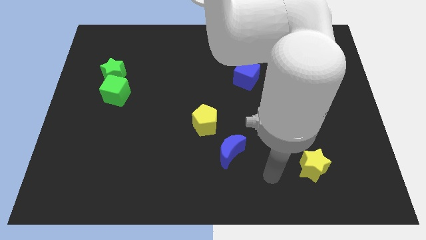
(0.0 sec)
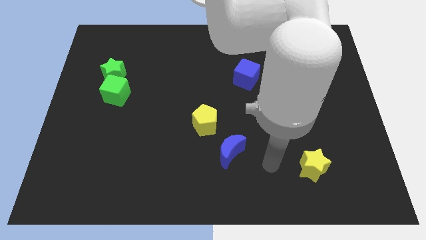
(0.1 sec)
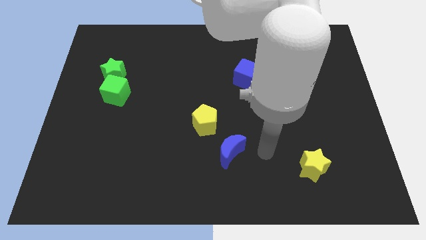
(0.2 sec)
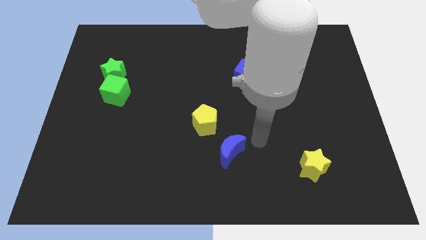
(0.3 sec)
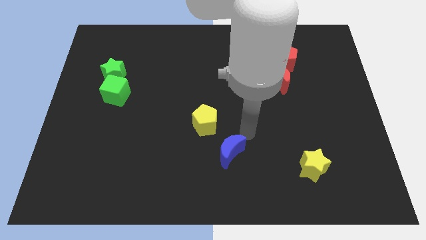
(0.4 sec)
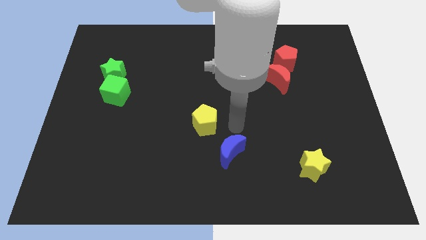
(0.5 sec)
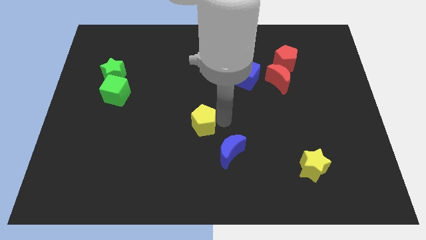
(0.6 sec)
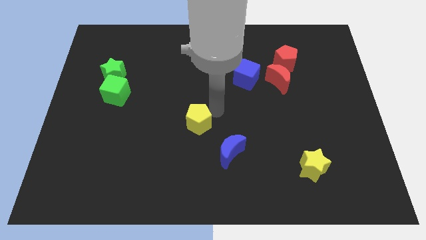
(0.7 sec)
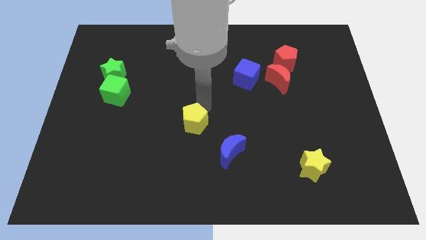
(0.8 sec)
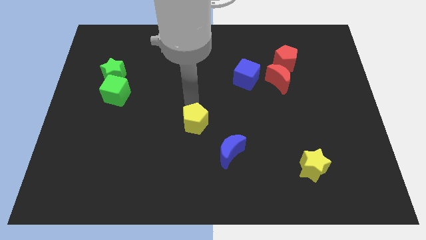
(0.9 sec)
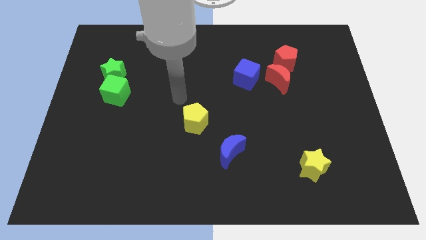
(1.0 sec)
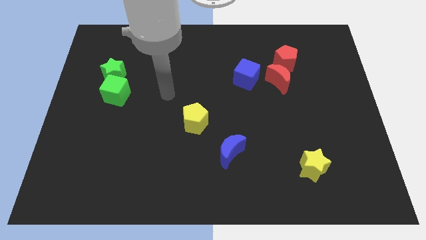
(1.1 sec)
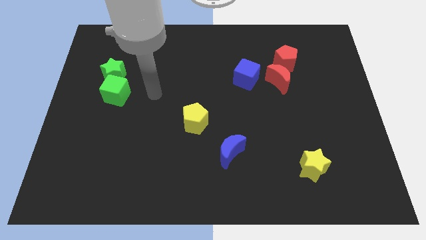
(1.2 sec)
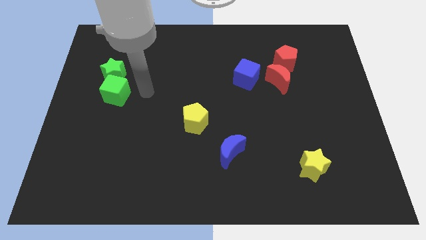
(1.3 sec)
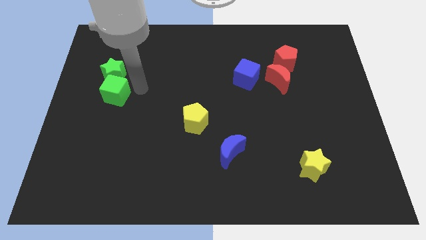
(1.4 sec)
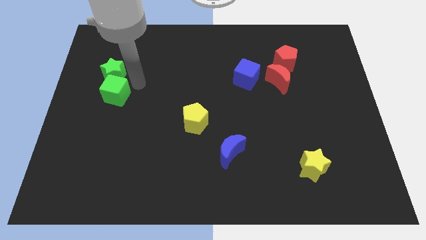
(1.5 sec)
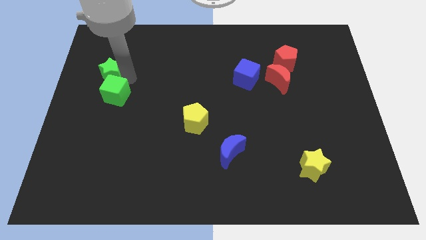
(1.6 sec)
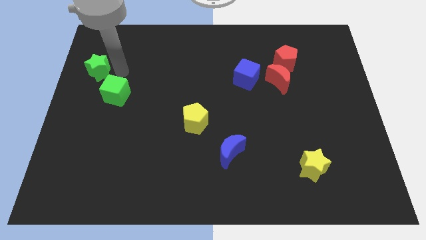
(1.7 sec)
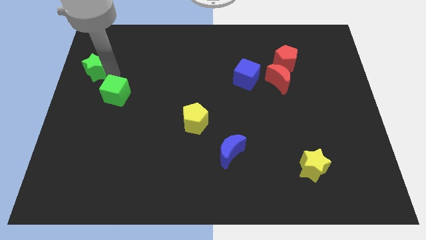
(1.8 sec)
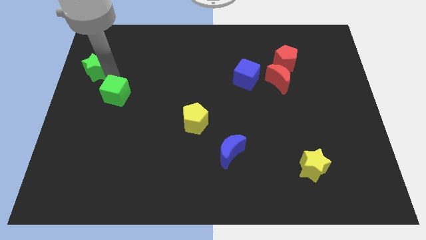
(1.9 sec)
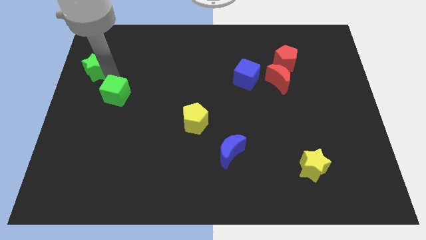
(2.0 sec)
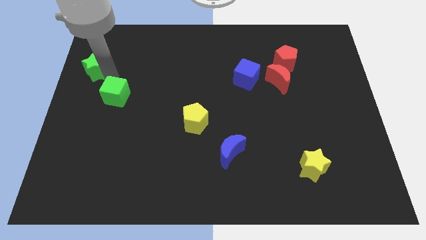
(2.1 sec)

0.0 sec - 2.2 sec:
move the green cube away from the green star

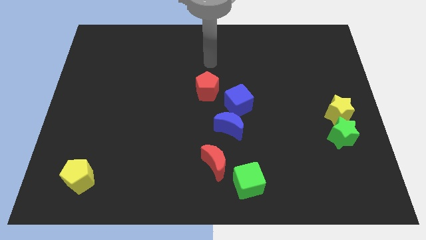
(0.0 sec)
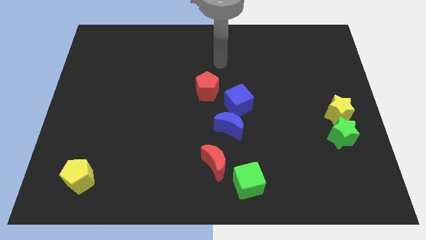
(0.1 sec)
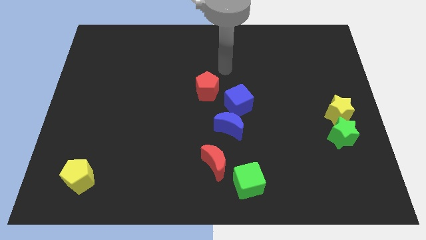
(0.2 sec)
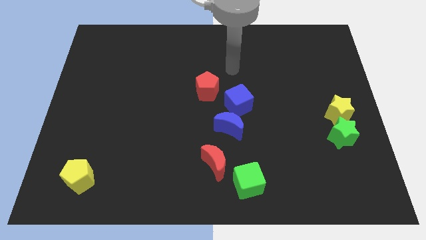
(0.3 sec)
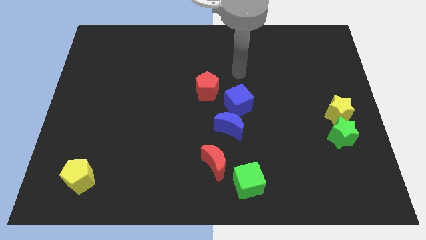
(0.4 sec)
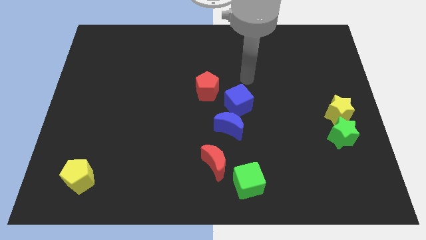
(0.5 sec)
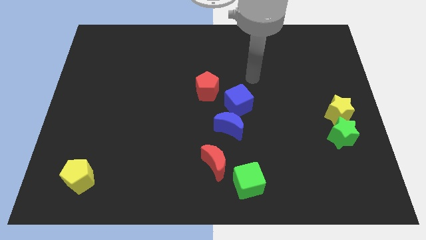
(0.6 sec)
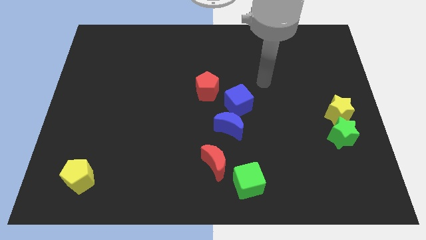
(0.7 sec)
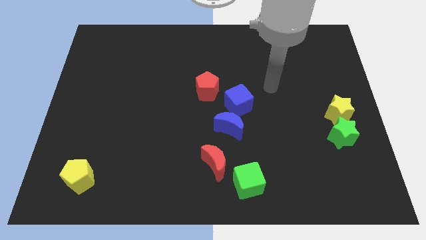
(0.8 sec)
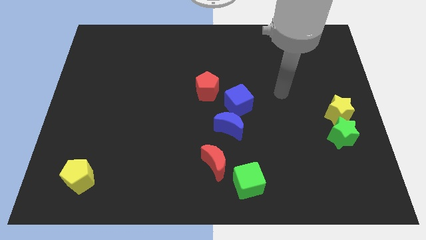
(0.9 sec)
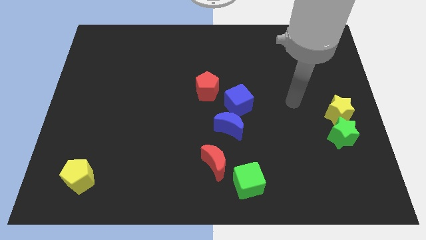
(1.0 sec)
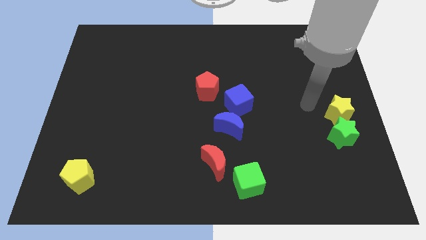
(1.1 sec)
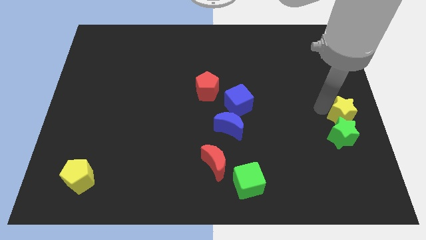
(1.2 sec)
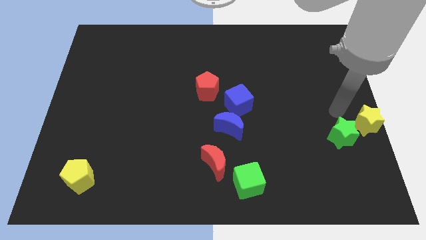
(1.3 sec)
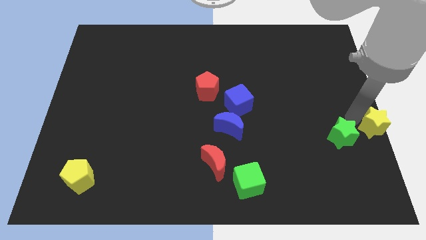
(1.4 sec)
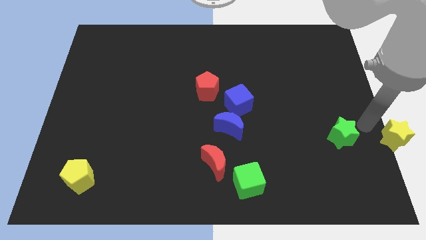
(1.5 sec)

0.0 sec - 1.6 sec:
move the green star away from the yellow star

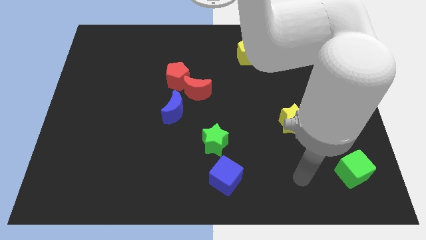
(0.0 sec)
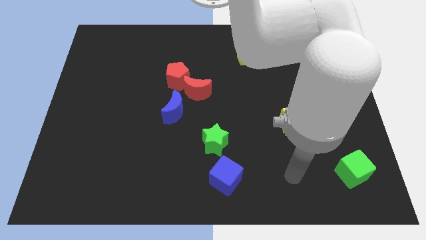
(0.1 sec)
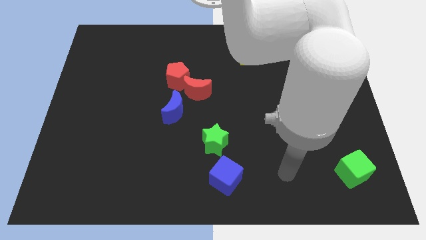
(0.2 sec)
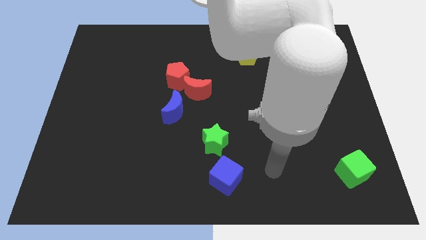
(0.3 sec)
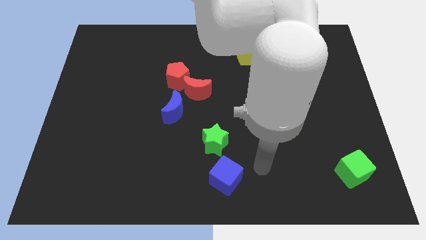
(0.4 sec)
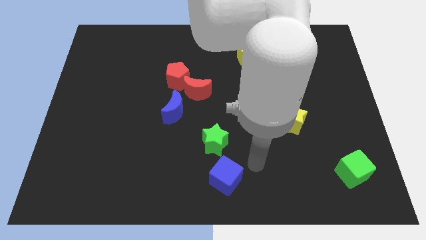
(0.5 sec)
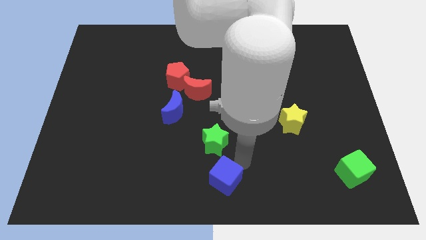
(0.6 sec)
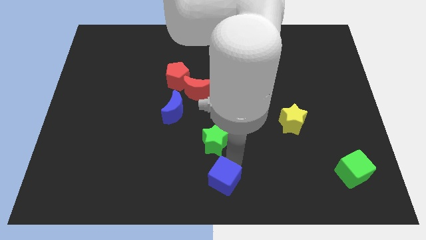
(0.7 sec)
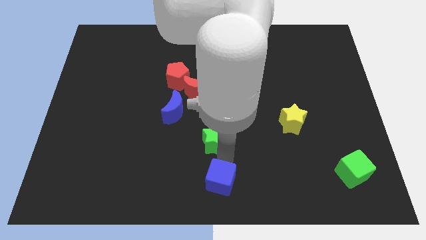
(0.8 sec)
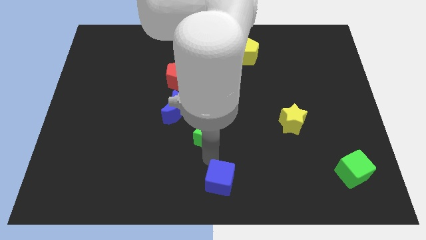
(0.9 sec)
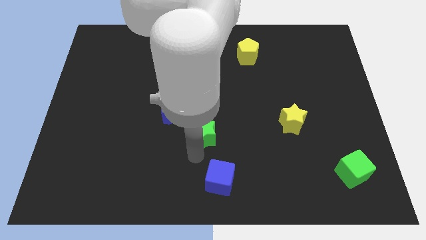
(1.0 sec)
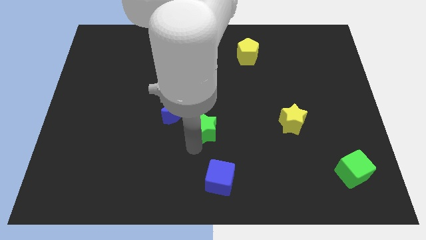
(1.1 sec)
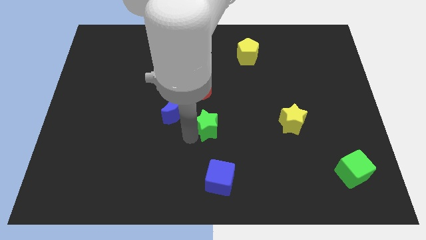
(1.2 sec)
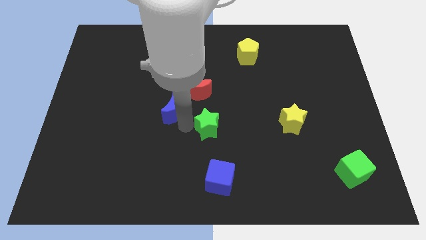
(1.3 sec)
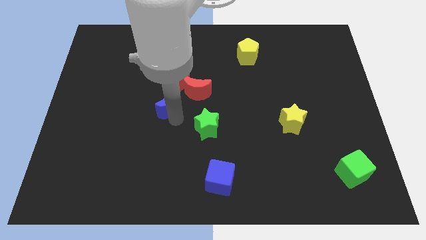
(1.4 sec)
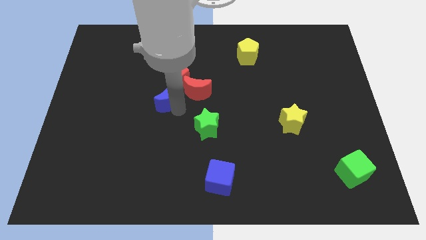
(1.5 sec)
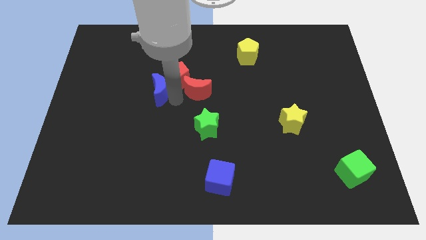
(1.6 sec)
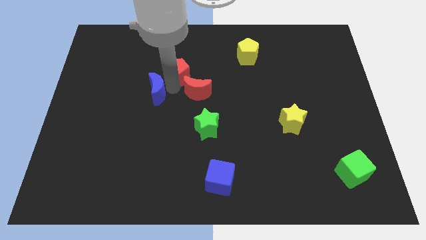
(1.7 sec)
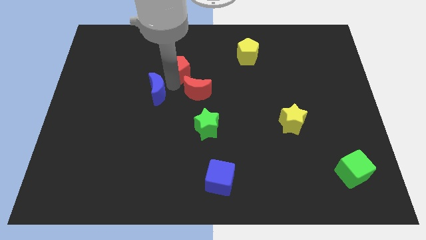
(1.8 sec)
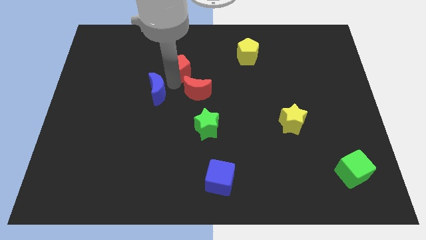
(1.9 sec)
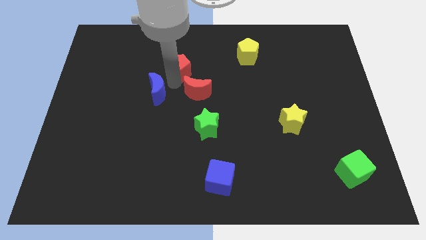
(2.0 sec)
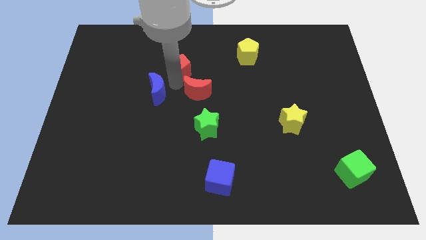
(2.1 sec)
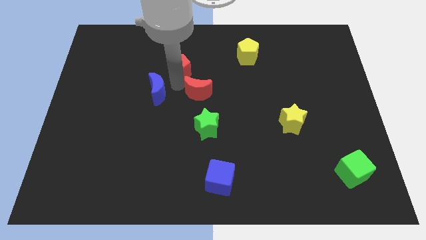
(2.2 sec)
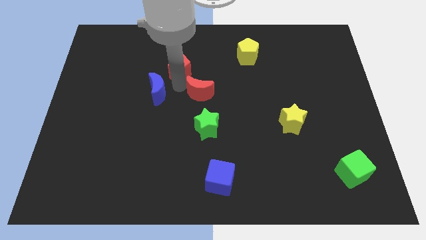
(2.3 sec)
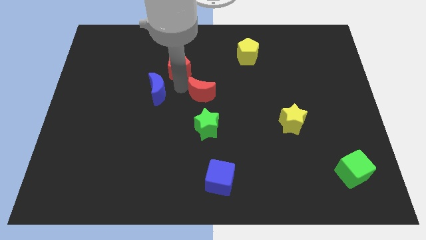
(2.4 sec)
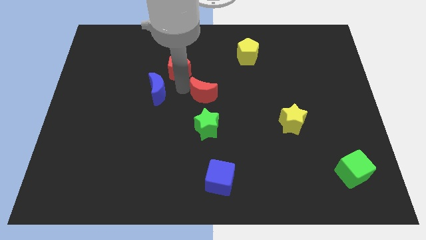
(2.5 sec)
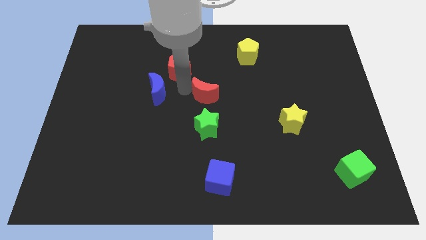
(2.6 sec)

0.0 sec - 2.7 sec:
pull the red moon apart from the red pentagon and blue moon

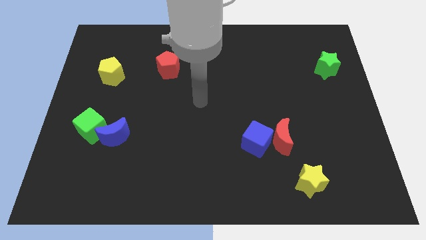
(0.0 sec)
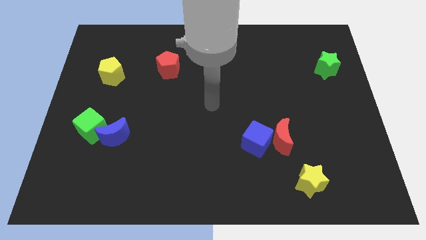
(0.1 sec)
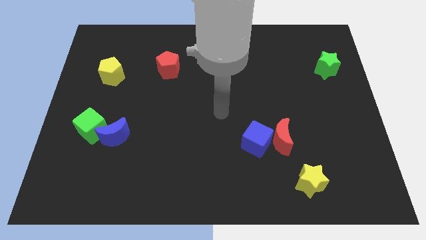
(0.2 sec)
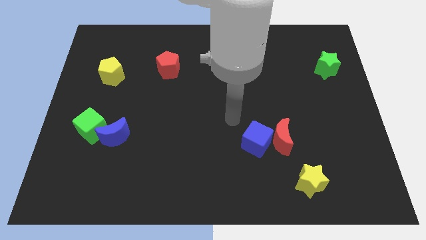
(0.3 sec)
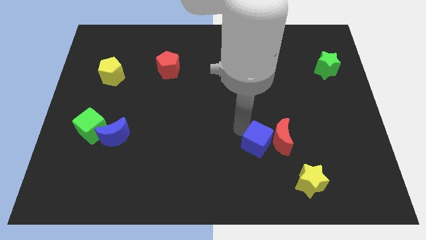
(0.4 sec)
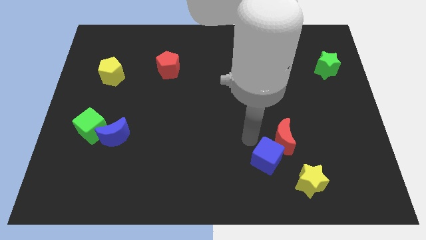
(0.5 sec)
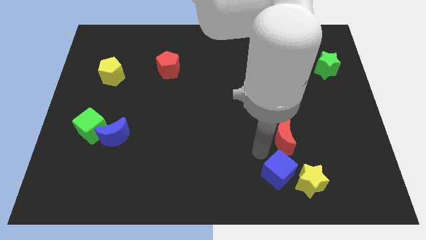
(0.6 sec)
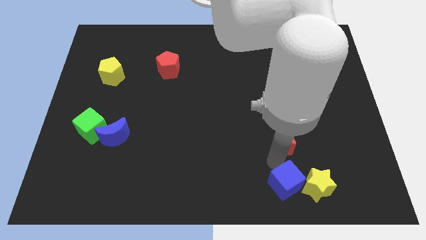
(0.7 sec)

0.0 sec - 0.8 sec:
pull the red moon apart from the blue cube

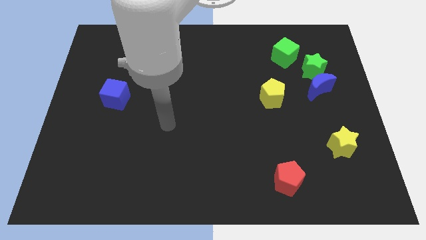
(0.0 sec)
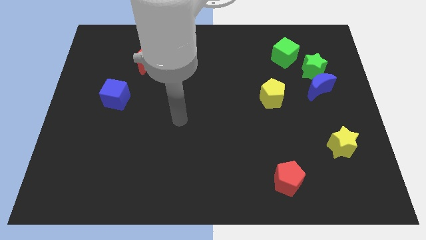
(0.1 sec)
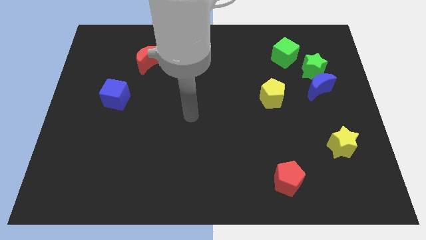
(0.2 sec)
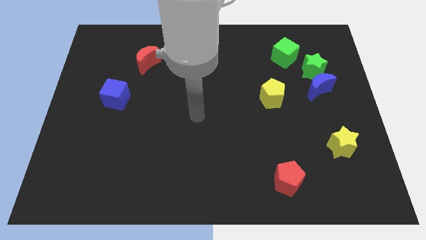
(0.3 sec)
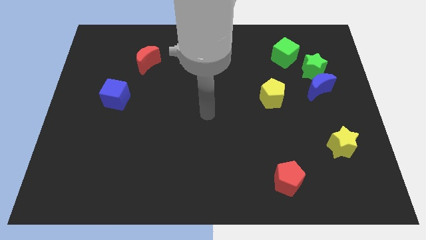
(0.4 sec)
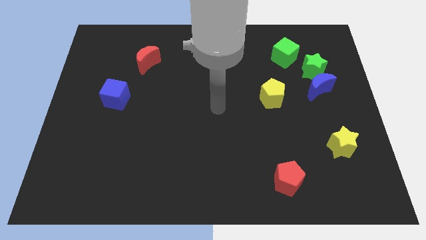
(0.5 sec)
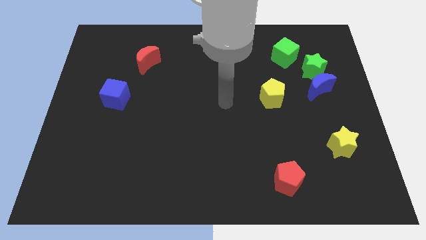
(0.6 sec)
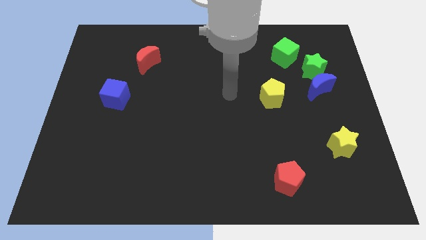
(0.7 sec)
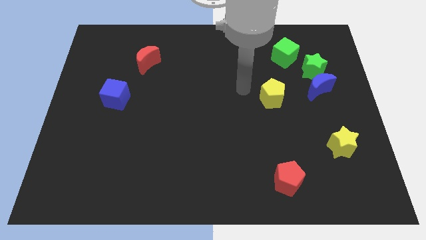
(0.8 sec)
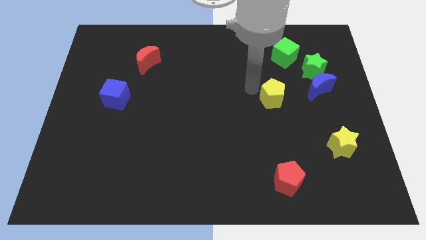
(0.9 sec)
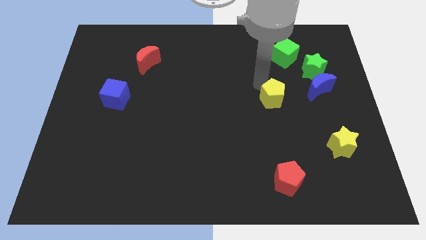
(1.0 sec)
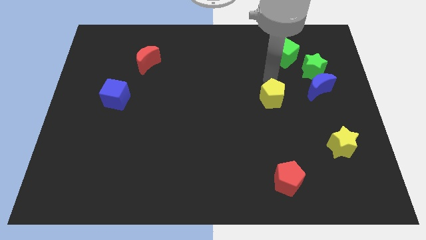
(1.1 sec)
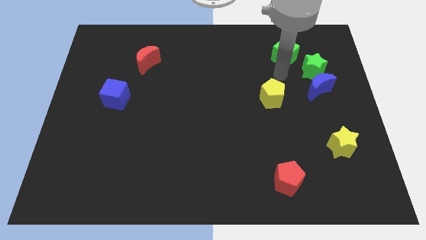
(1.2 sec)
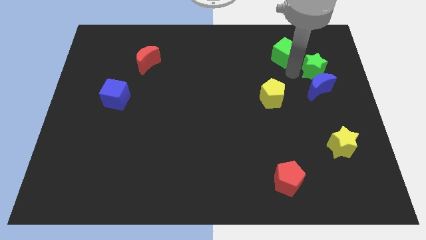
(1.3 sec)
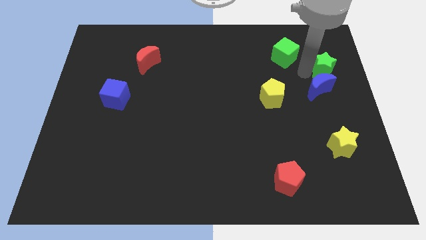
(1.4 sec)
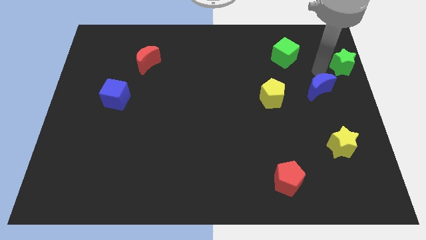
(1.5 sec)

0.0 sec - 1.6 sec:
separate the blue moon from the green star

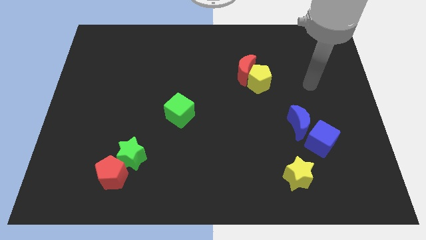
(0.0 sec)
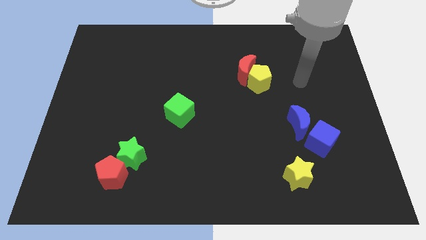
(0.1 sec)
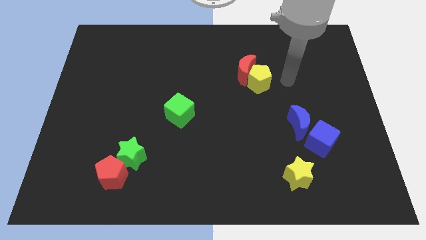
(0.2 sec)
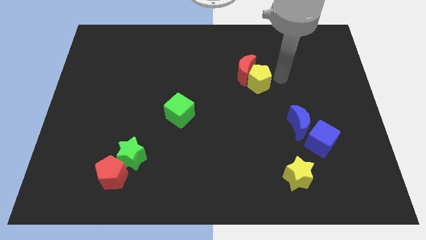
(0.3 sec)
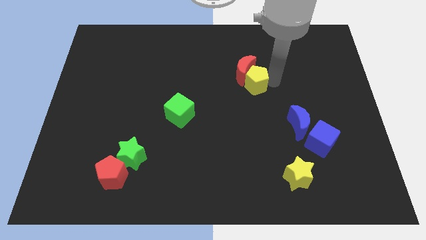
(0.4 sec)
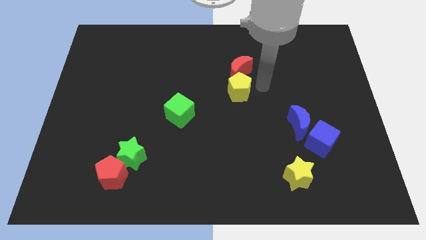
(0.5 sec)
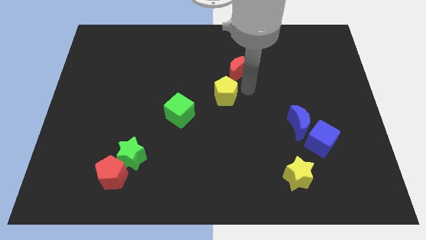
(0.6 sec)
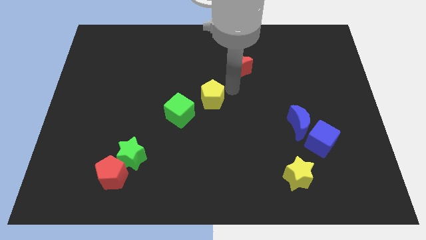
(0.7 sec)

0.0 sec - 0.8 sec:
separate the red moon from the yellow pentagon
